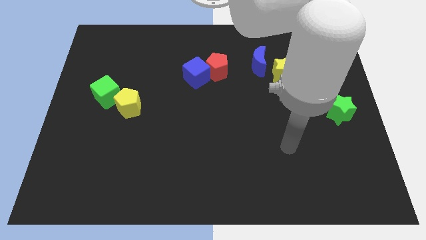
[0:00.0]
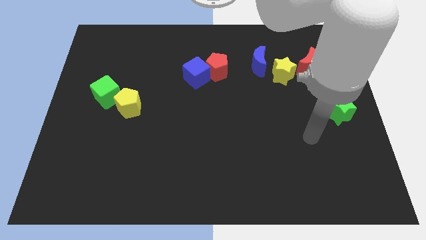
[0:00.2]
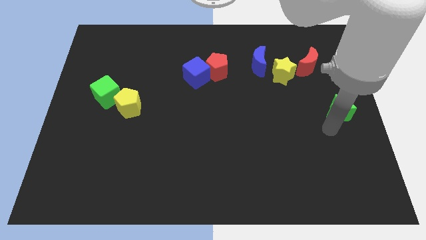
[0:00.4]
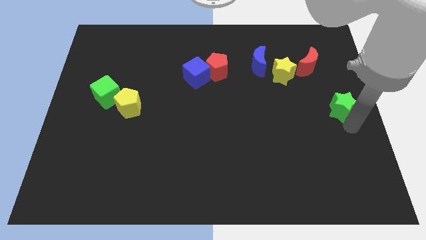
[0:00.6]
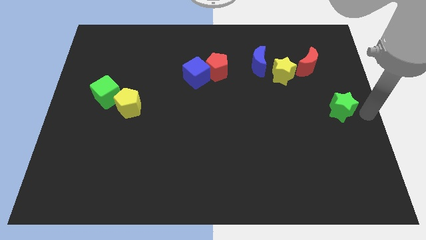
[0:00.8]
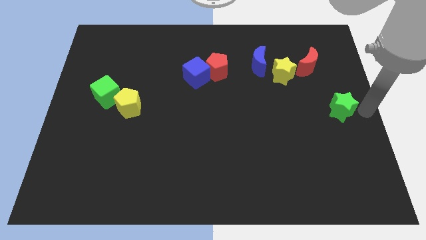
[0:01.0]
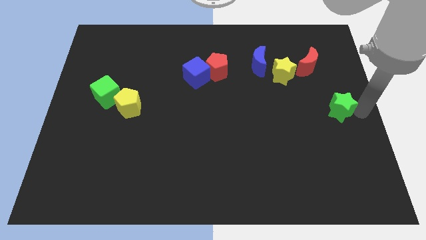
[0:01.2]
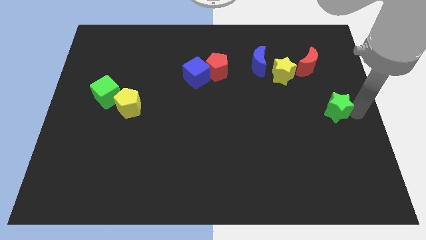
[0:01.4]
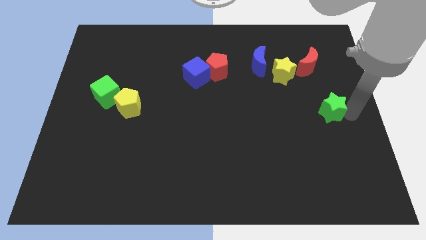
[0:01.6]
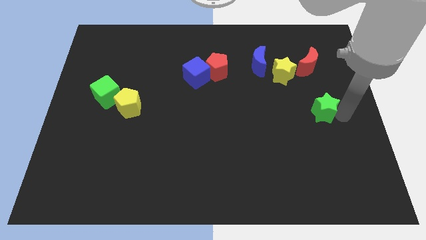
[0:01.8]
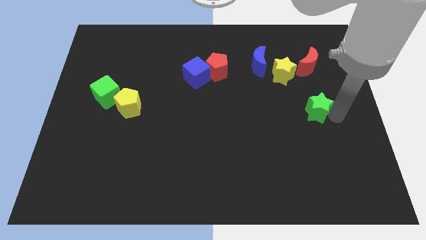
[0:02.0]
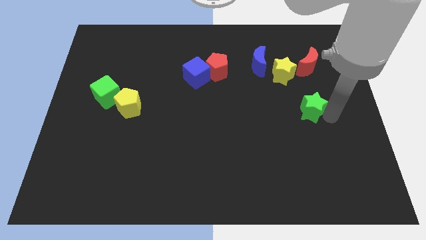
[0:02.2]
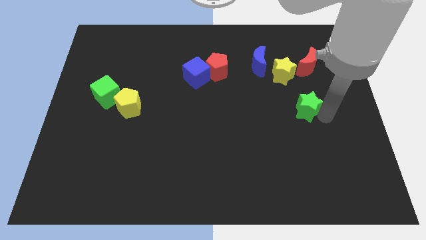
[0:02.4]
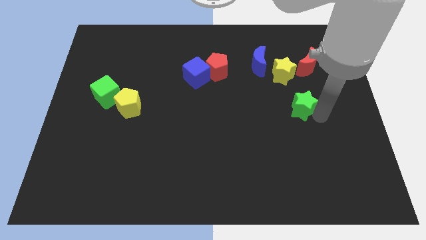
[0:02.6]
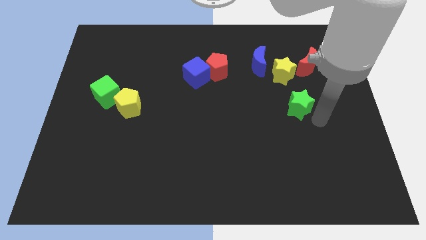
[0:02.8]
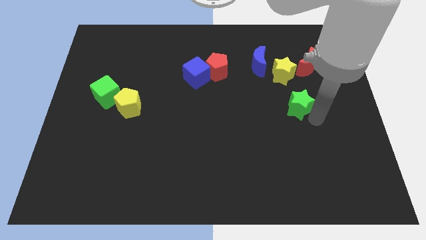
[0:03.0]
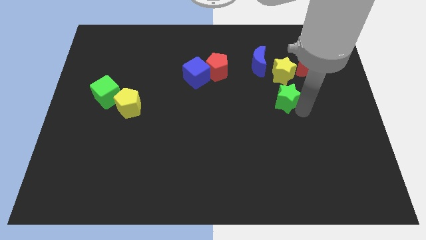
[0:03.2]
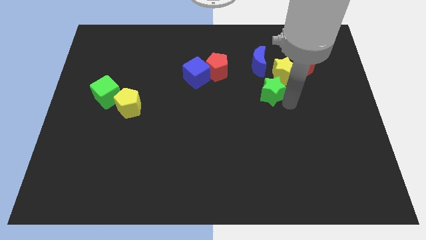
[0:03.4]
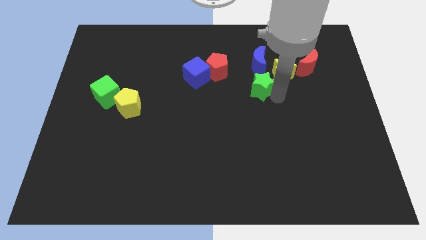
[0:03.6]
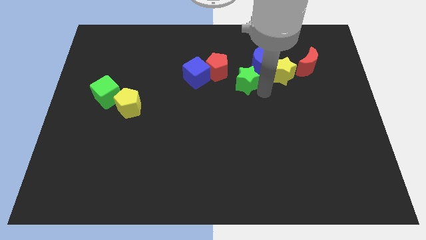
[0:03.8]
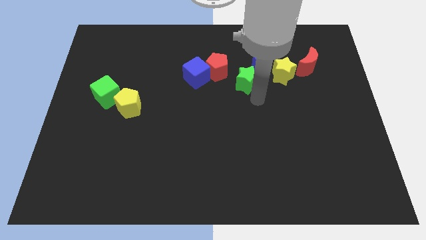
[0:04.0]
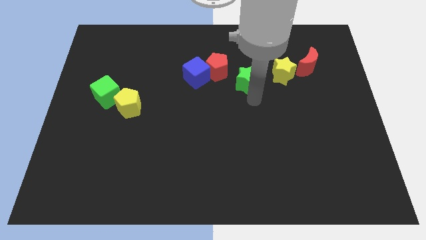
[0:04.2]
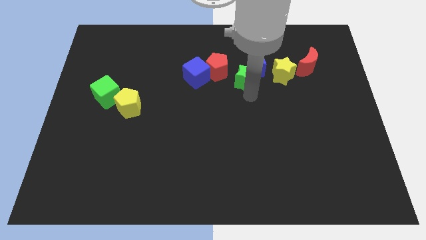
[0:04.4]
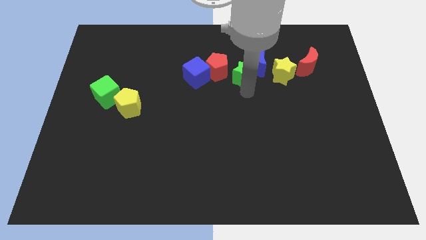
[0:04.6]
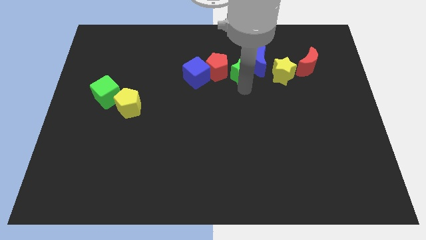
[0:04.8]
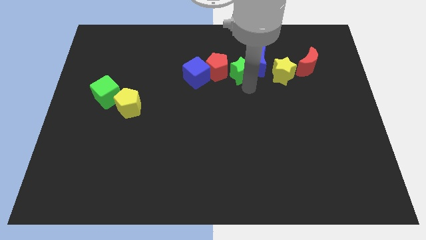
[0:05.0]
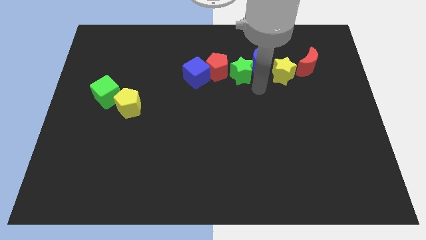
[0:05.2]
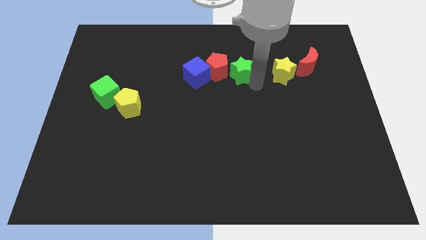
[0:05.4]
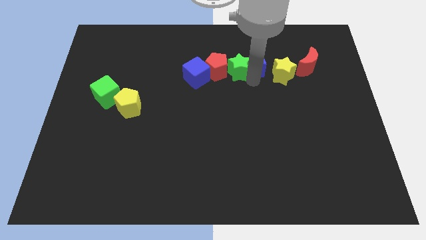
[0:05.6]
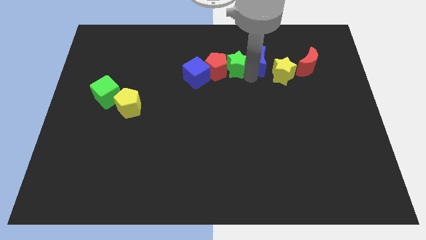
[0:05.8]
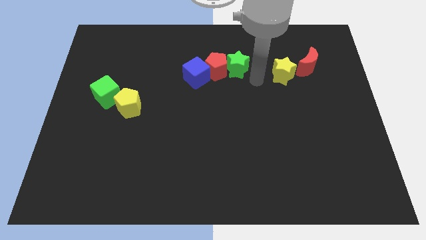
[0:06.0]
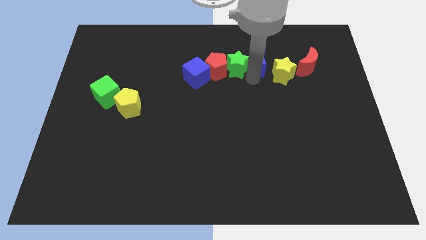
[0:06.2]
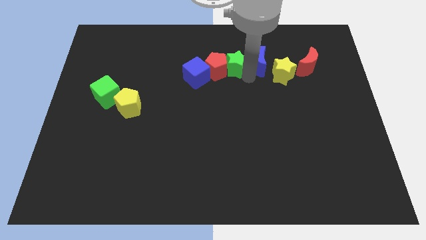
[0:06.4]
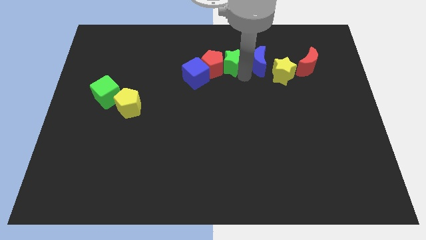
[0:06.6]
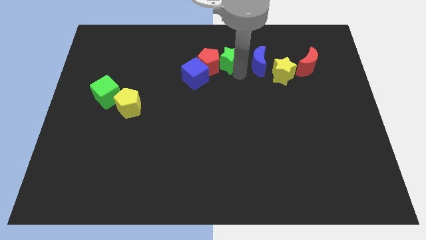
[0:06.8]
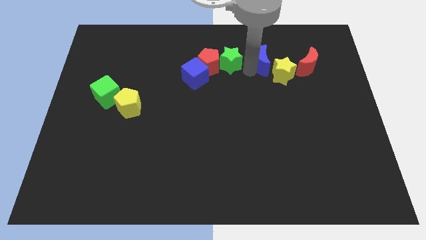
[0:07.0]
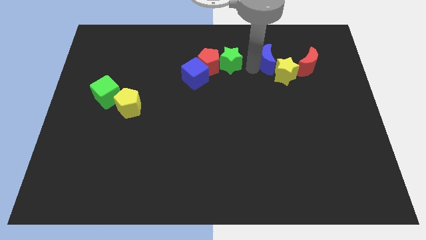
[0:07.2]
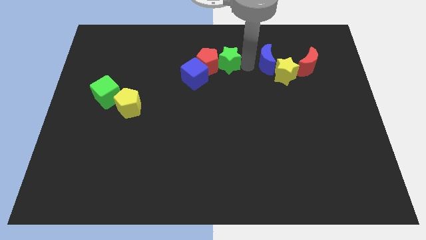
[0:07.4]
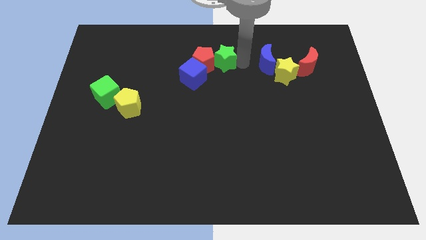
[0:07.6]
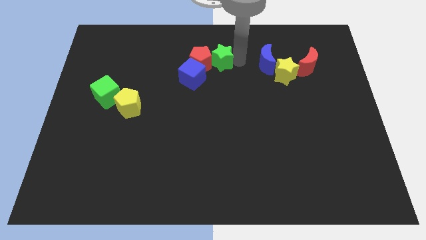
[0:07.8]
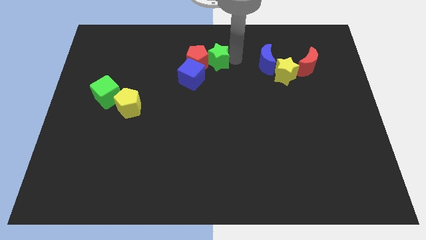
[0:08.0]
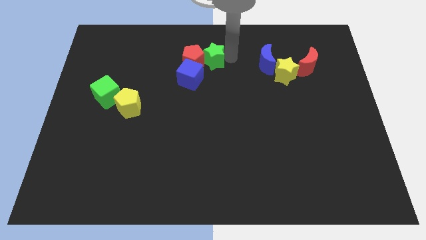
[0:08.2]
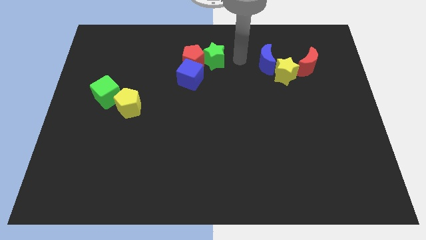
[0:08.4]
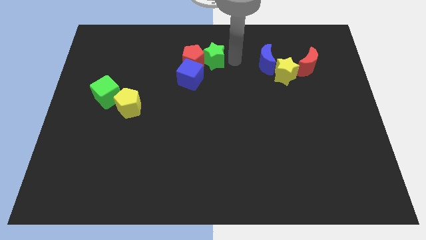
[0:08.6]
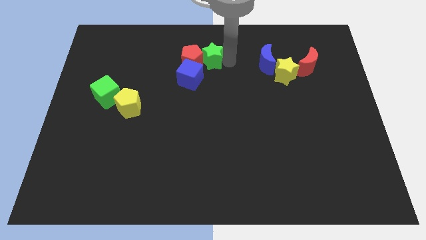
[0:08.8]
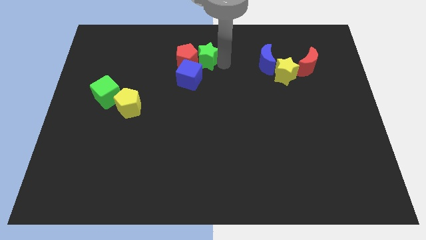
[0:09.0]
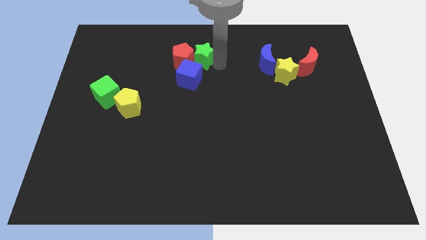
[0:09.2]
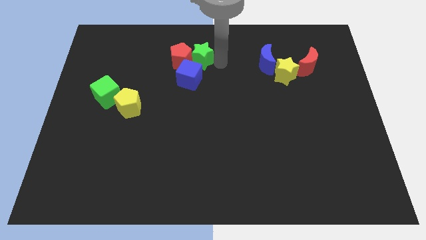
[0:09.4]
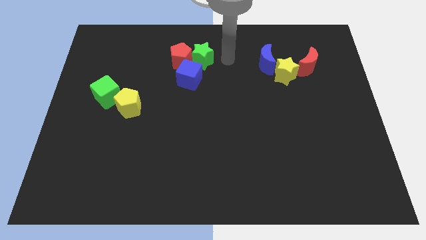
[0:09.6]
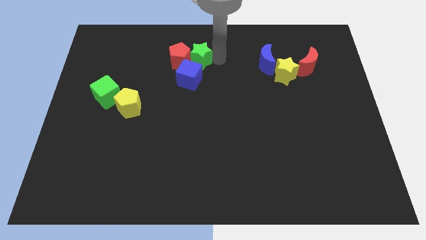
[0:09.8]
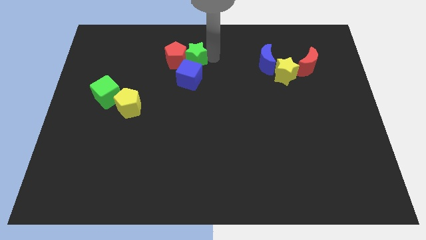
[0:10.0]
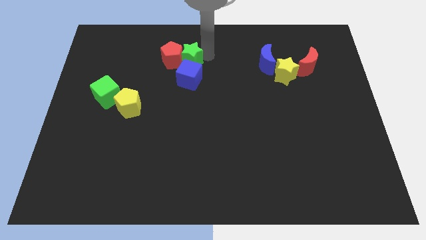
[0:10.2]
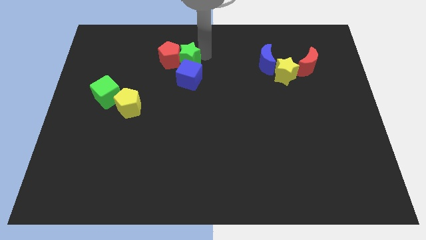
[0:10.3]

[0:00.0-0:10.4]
slide the green star to the top left side of the blue cube

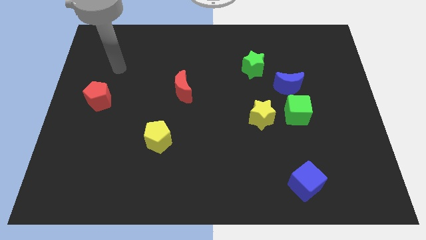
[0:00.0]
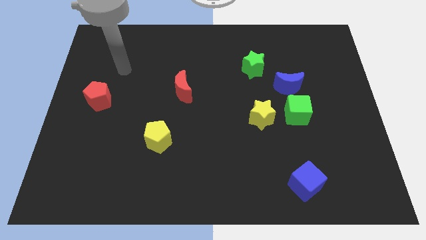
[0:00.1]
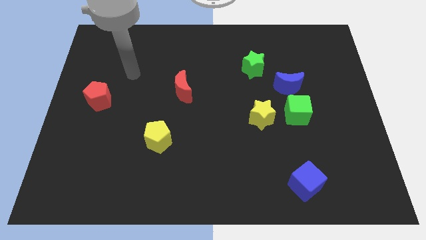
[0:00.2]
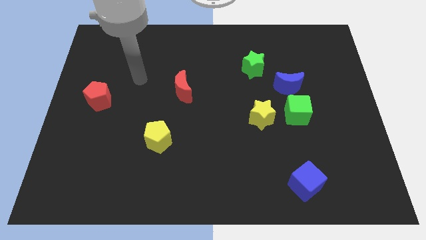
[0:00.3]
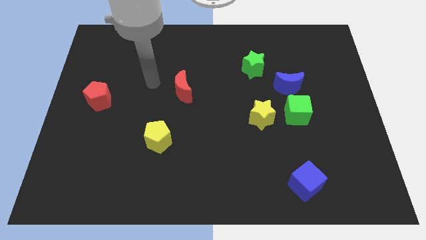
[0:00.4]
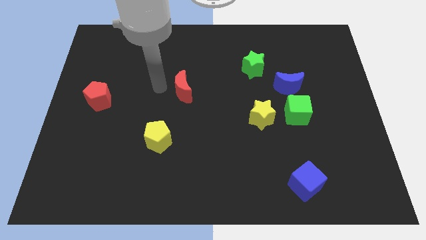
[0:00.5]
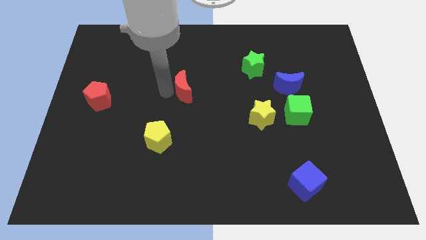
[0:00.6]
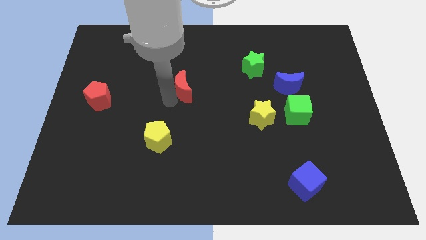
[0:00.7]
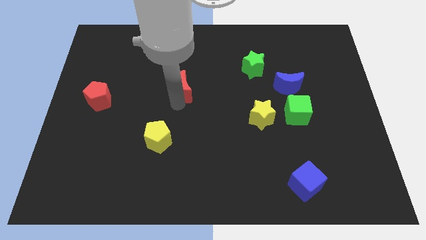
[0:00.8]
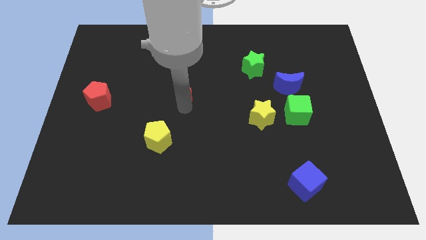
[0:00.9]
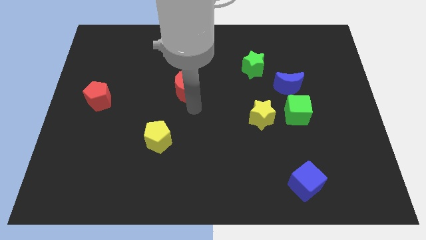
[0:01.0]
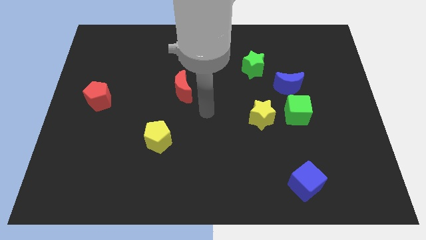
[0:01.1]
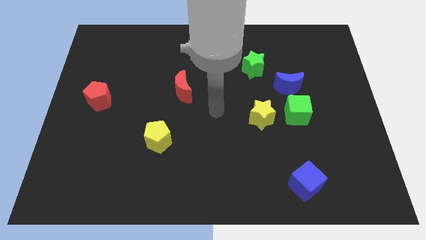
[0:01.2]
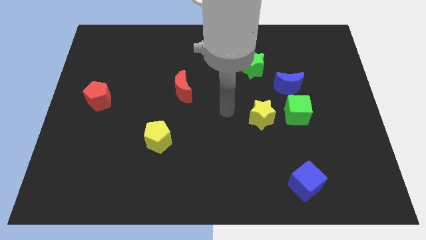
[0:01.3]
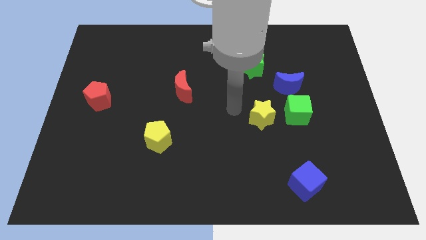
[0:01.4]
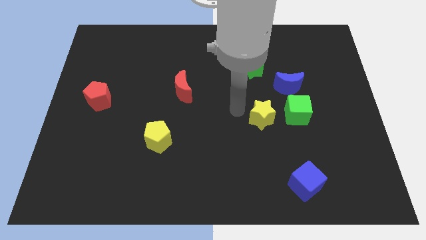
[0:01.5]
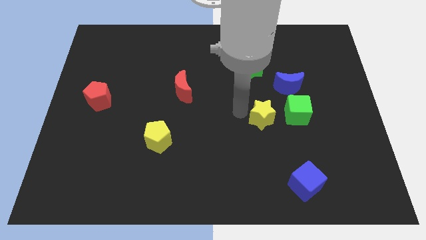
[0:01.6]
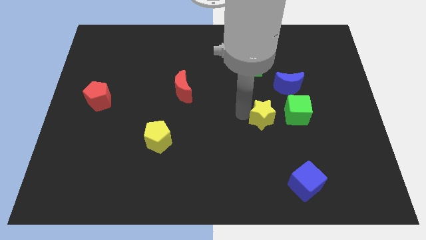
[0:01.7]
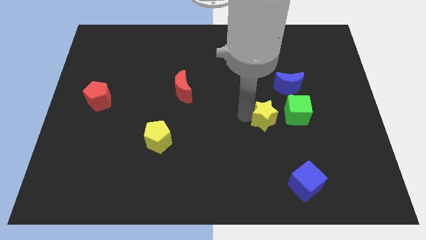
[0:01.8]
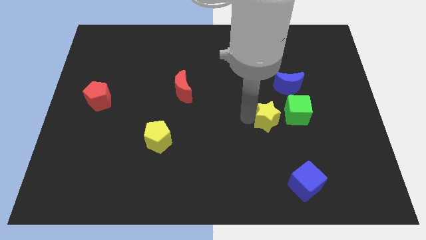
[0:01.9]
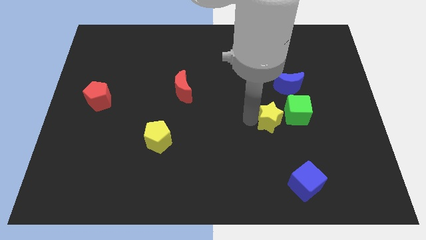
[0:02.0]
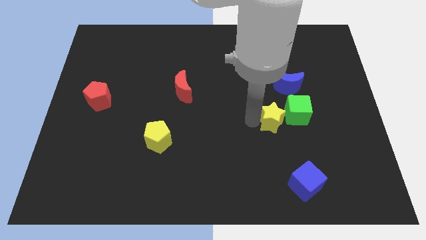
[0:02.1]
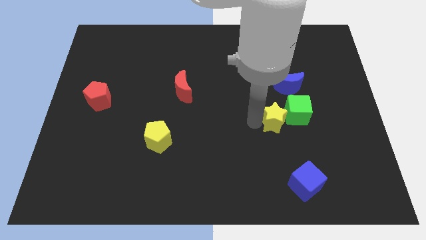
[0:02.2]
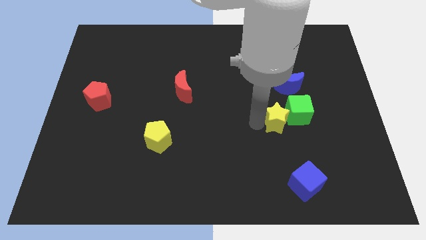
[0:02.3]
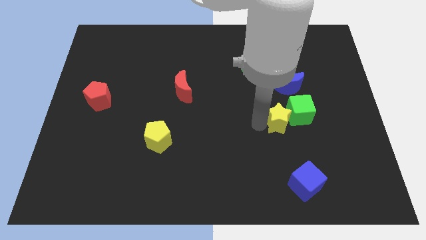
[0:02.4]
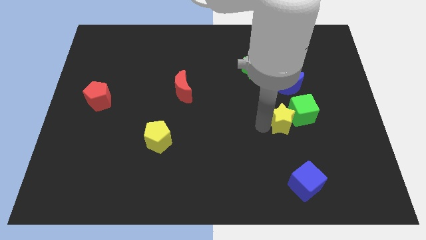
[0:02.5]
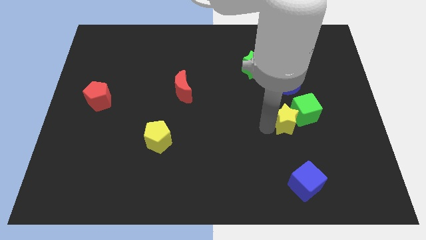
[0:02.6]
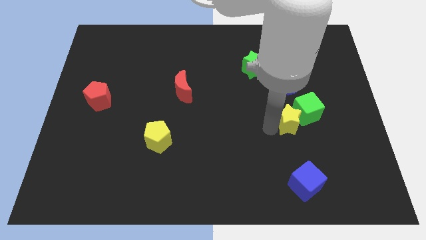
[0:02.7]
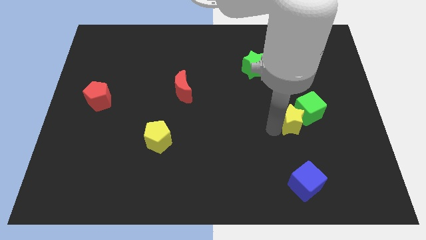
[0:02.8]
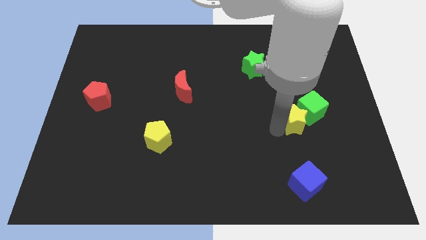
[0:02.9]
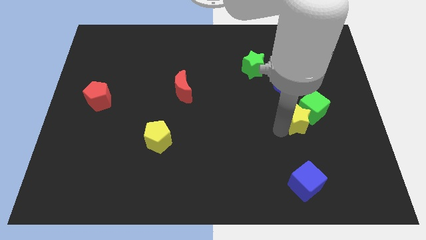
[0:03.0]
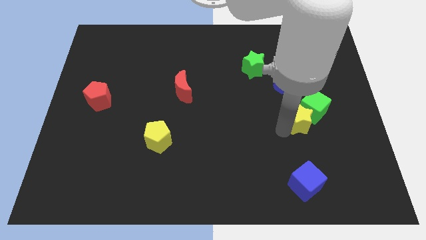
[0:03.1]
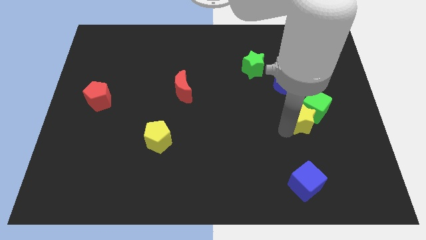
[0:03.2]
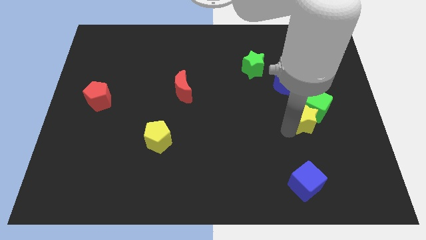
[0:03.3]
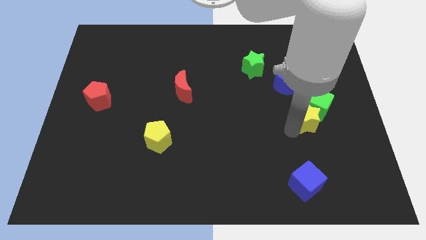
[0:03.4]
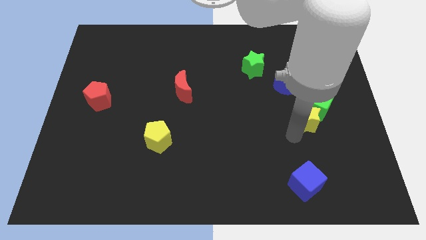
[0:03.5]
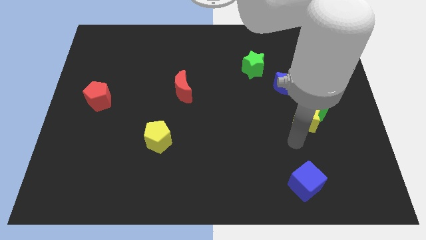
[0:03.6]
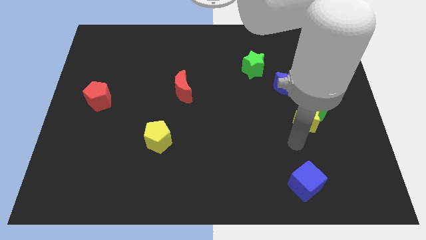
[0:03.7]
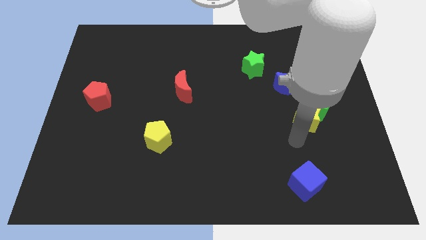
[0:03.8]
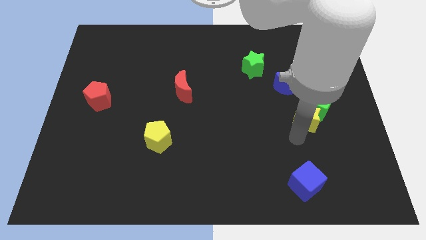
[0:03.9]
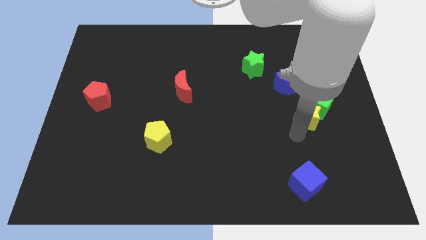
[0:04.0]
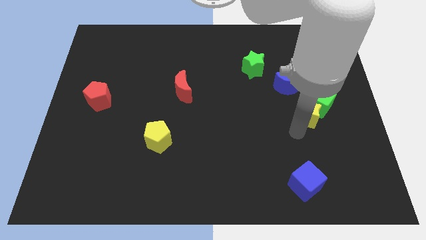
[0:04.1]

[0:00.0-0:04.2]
move the yellow star to the bottom right of the blue moon
